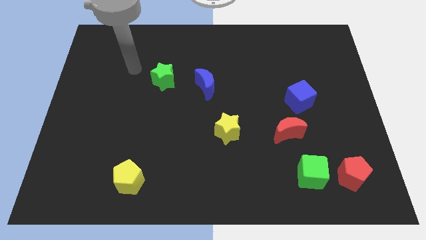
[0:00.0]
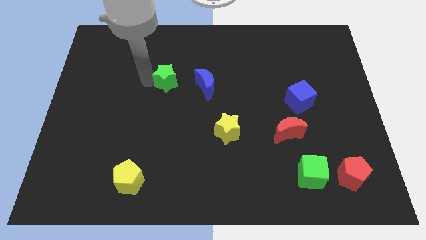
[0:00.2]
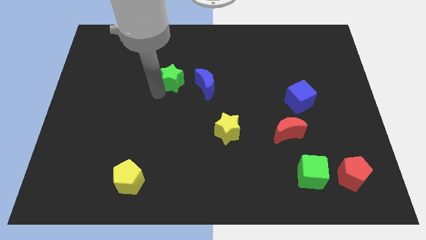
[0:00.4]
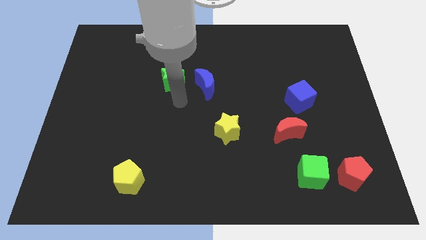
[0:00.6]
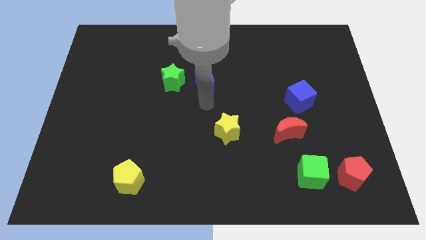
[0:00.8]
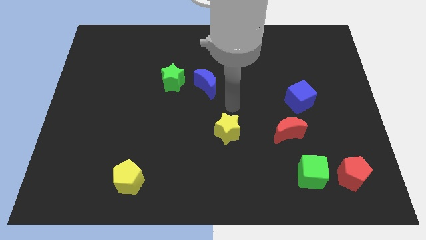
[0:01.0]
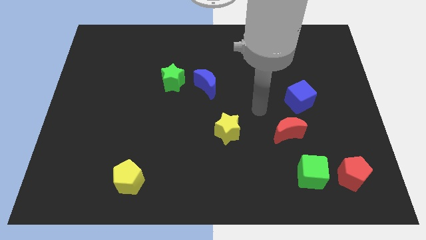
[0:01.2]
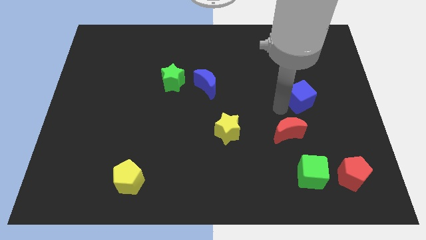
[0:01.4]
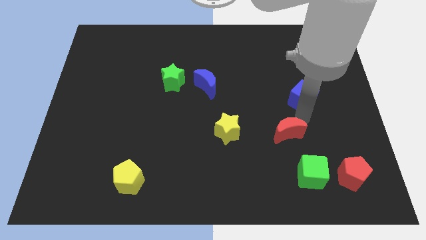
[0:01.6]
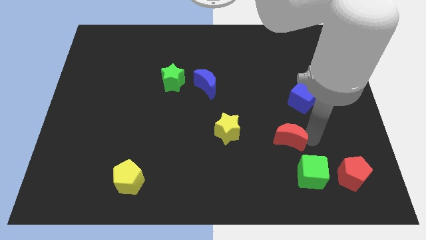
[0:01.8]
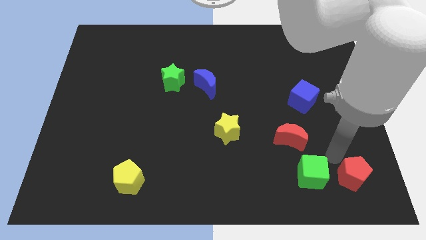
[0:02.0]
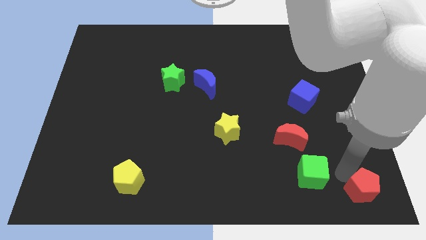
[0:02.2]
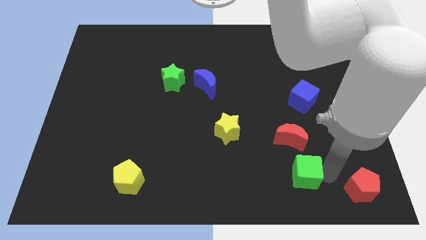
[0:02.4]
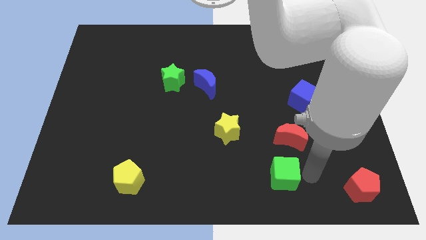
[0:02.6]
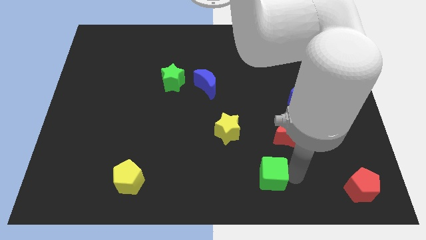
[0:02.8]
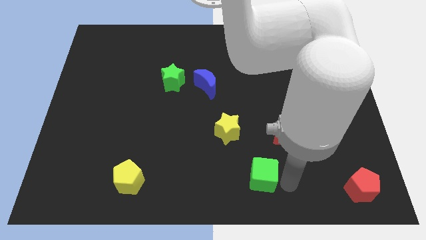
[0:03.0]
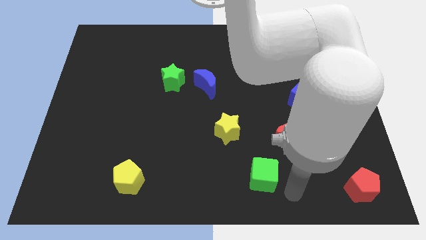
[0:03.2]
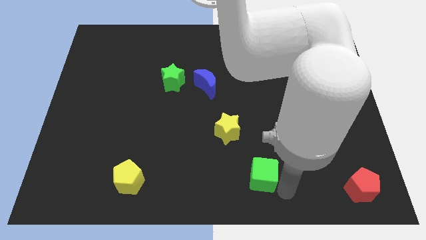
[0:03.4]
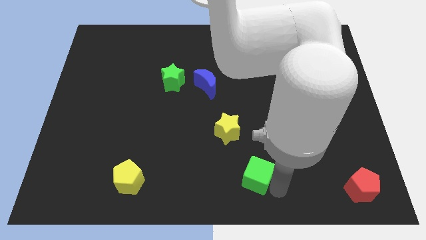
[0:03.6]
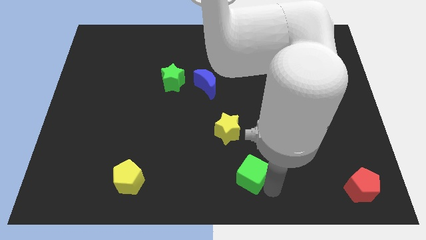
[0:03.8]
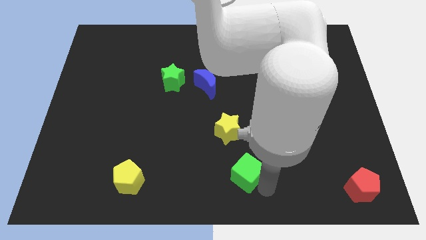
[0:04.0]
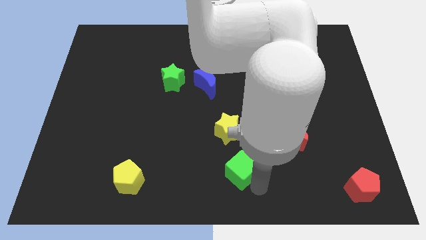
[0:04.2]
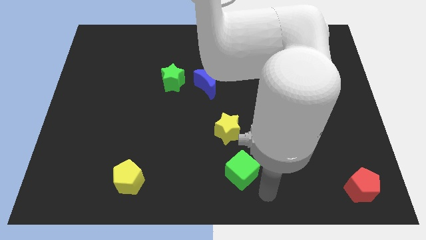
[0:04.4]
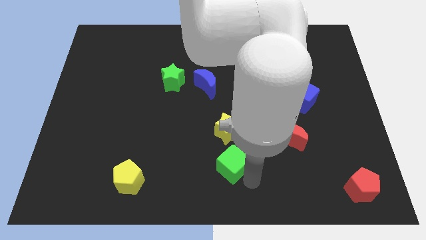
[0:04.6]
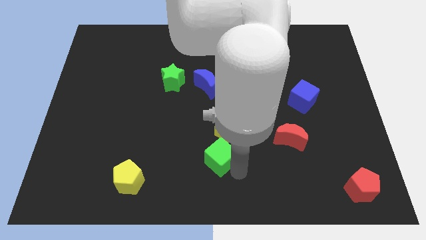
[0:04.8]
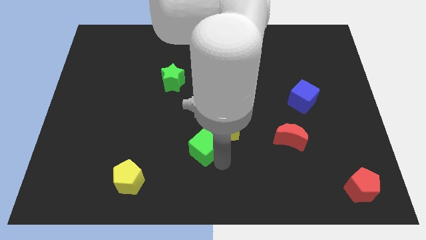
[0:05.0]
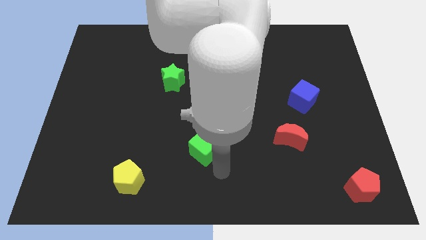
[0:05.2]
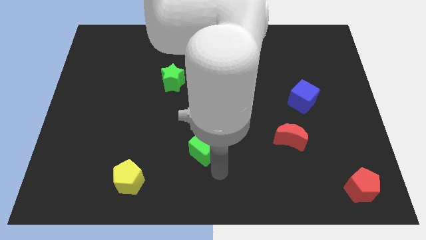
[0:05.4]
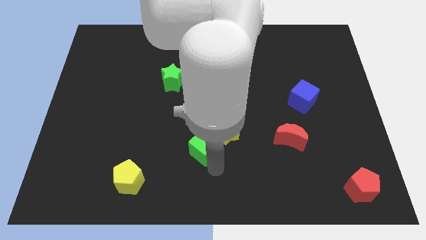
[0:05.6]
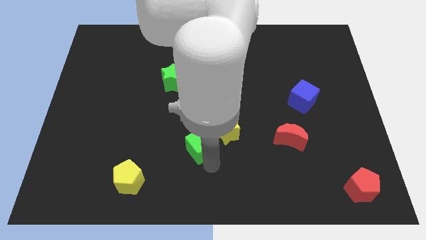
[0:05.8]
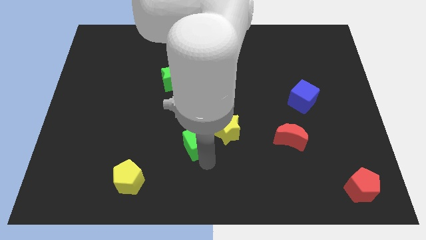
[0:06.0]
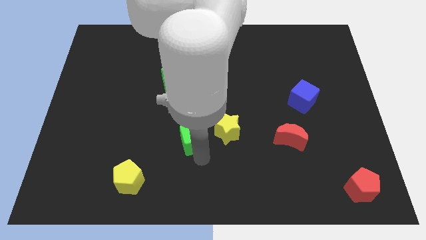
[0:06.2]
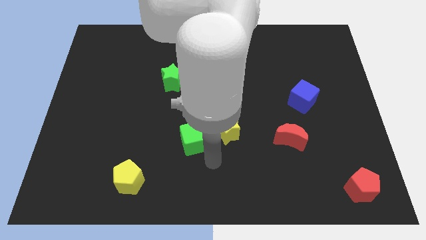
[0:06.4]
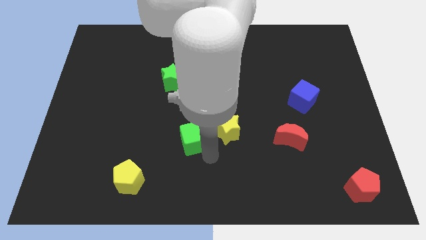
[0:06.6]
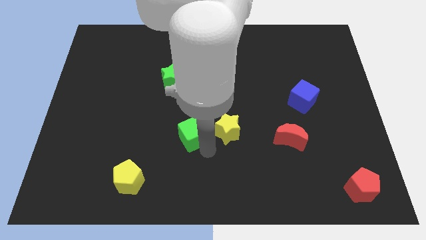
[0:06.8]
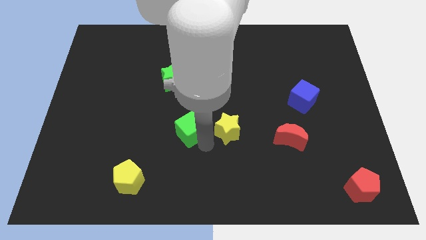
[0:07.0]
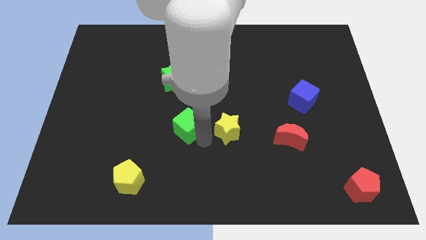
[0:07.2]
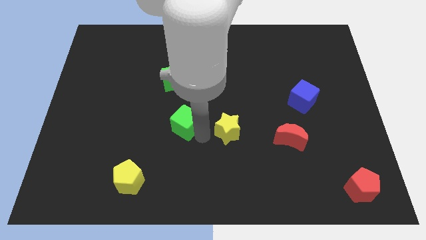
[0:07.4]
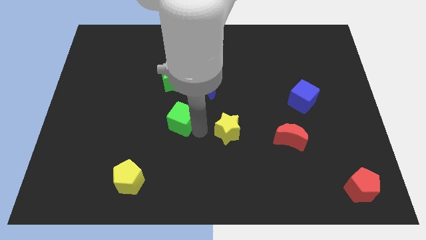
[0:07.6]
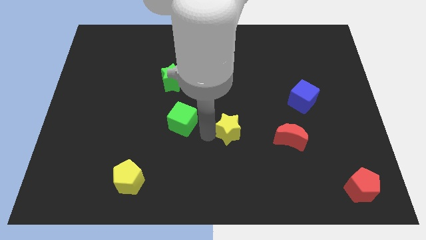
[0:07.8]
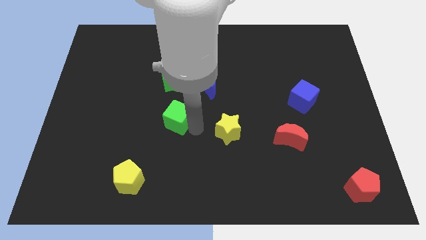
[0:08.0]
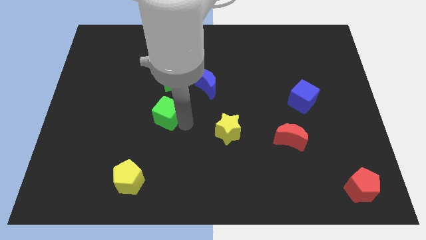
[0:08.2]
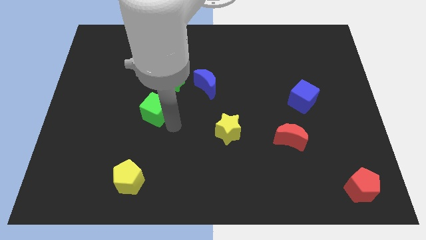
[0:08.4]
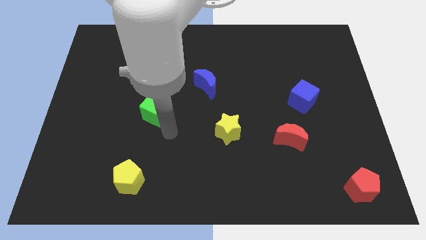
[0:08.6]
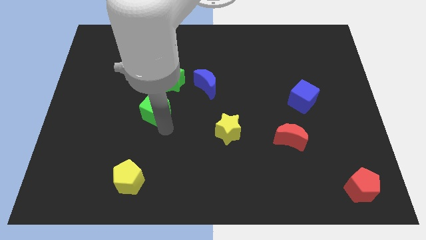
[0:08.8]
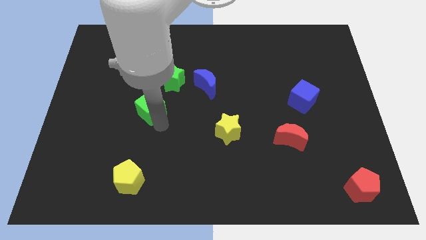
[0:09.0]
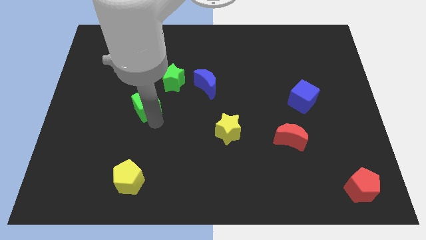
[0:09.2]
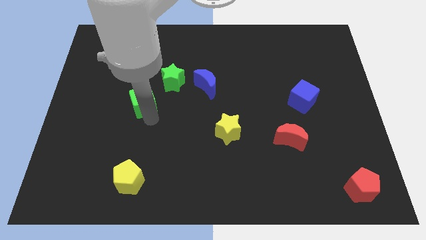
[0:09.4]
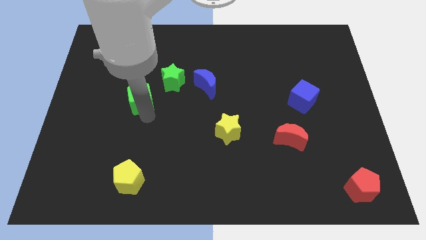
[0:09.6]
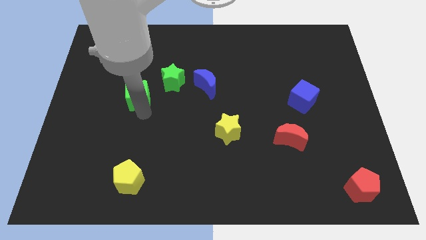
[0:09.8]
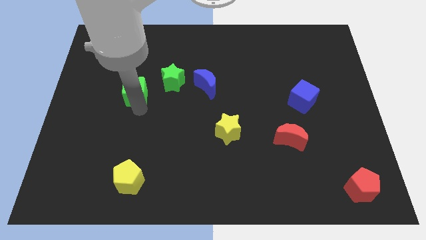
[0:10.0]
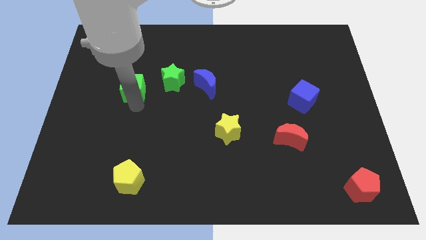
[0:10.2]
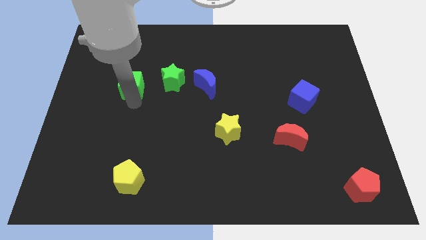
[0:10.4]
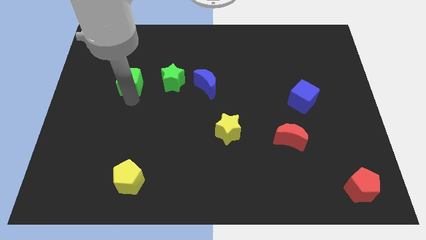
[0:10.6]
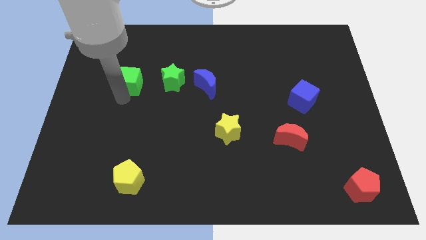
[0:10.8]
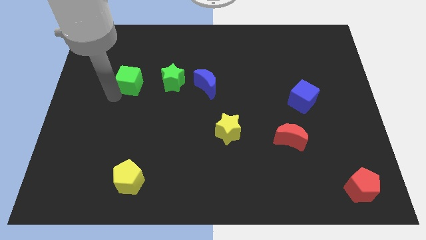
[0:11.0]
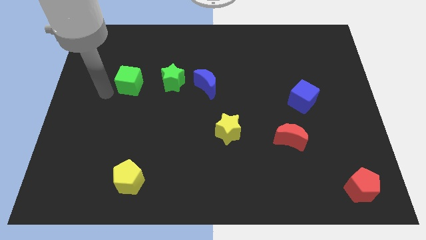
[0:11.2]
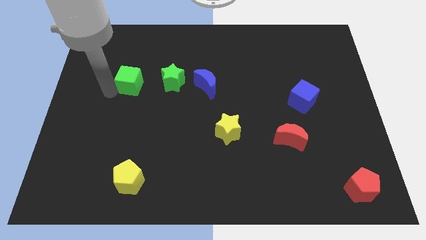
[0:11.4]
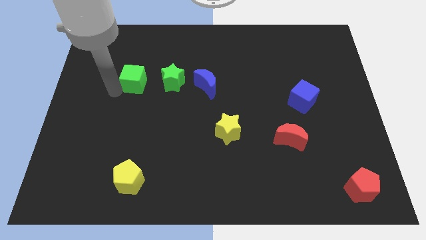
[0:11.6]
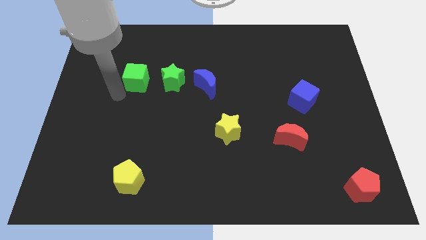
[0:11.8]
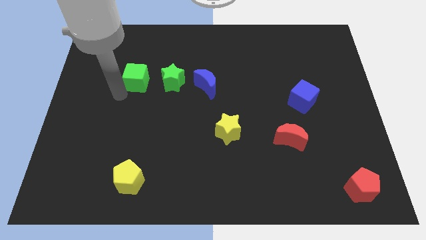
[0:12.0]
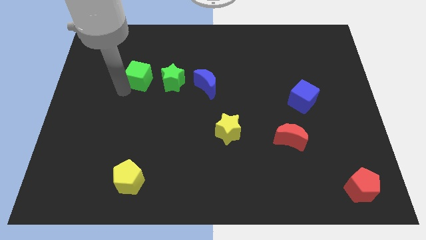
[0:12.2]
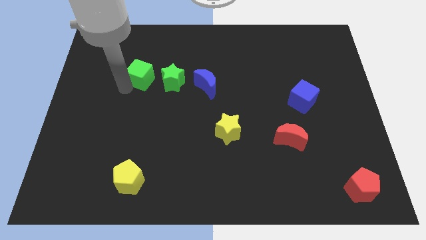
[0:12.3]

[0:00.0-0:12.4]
put the green cube to the top left of the green star

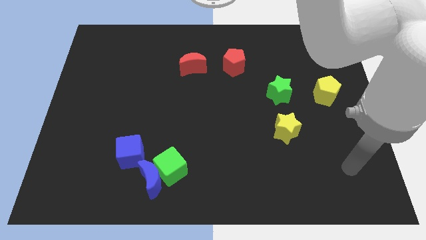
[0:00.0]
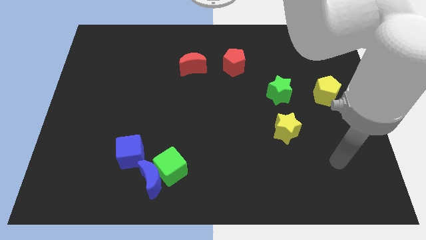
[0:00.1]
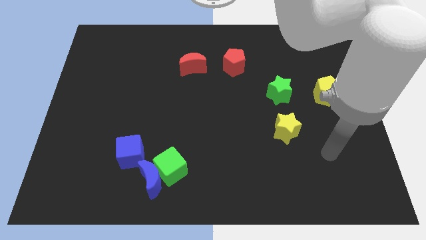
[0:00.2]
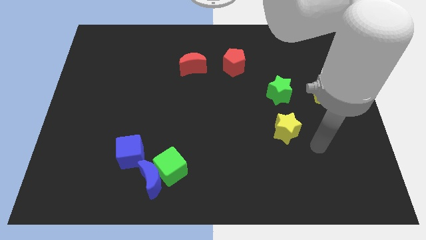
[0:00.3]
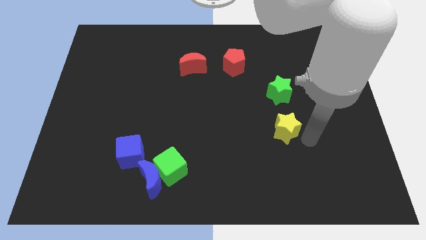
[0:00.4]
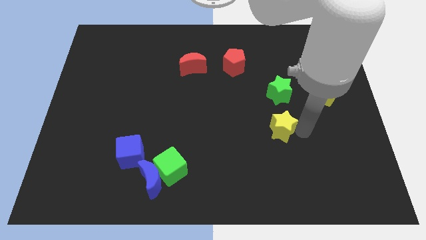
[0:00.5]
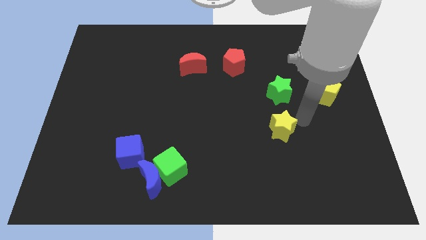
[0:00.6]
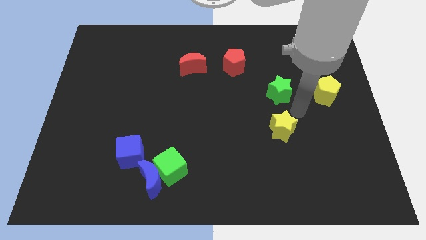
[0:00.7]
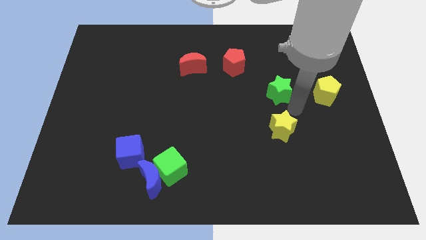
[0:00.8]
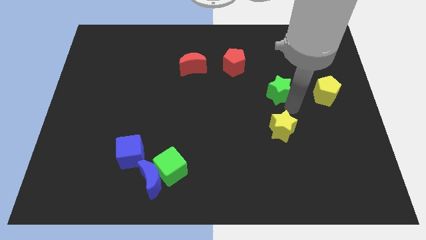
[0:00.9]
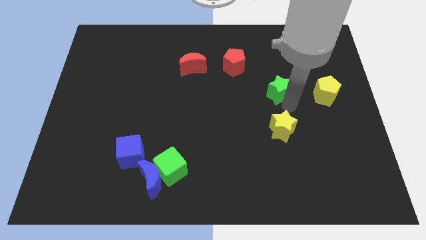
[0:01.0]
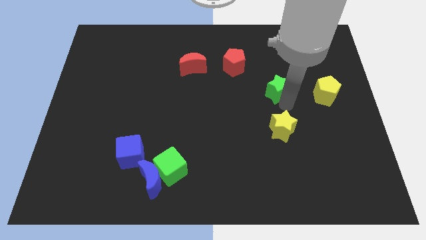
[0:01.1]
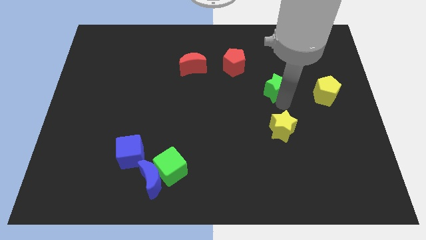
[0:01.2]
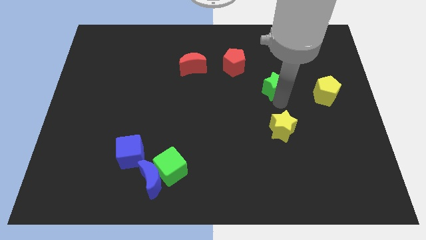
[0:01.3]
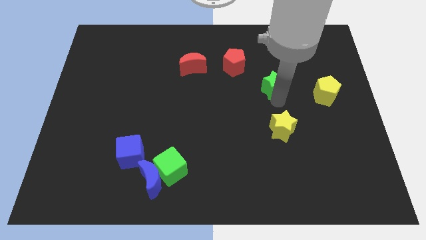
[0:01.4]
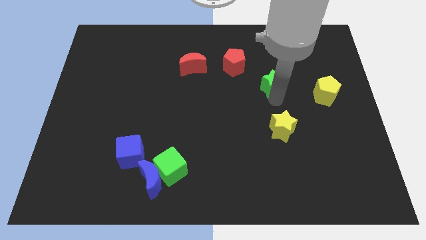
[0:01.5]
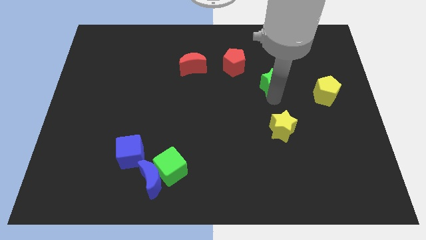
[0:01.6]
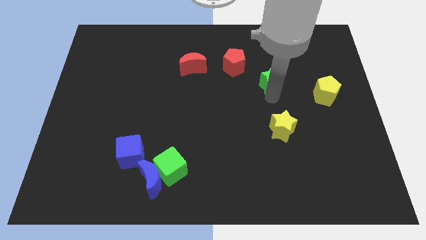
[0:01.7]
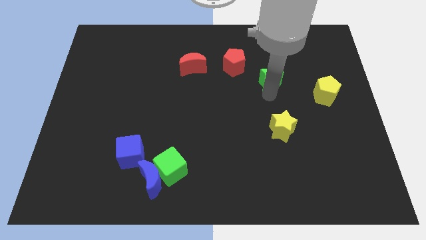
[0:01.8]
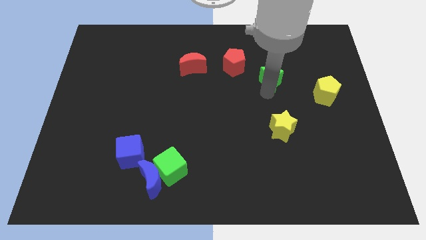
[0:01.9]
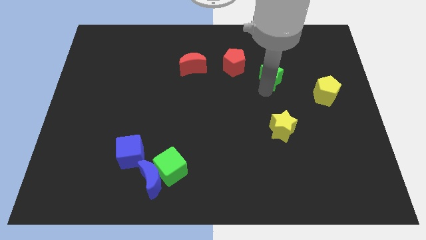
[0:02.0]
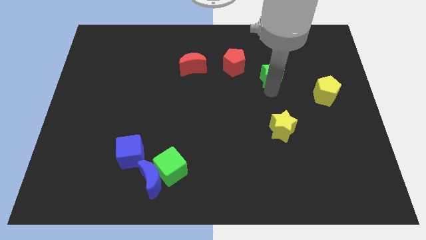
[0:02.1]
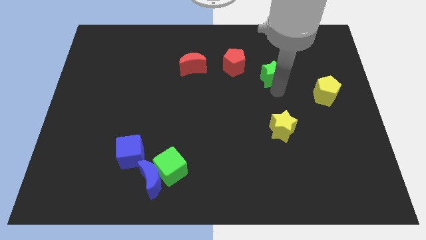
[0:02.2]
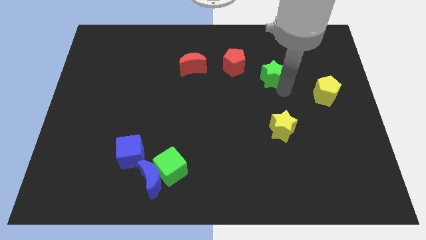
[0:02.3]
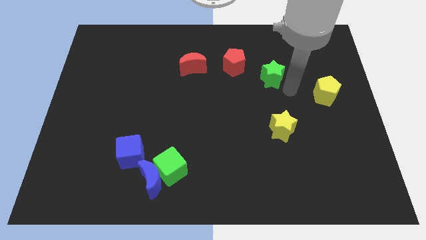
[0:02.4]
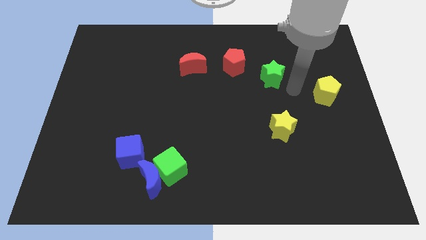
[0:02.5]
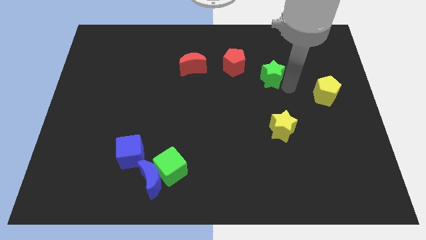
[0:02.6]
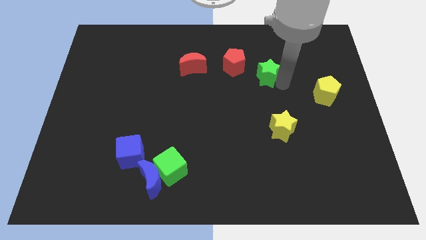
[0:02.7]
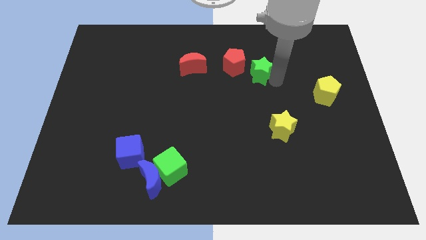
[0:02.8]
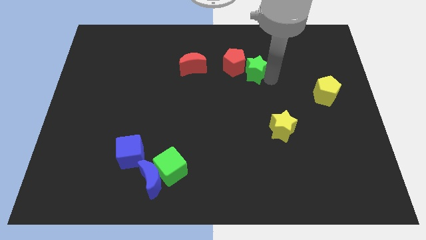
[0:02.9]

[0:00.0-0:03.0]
move the green star to the right of the red moon
